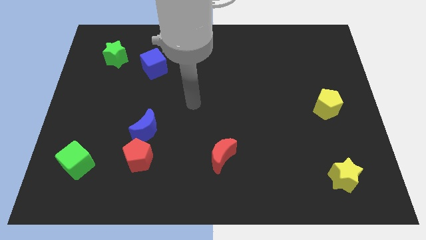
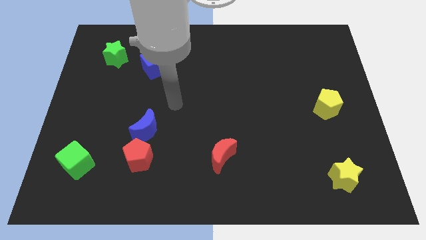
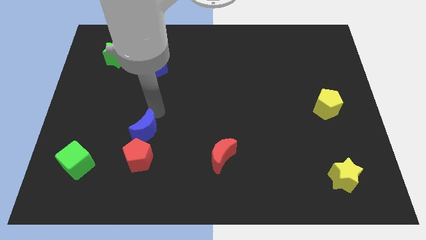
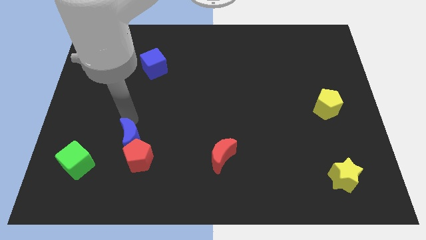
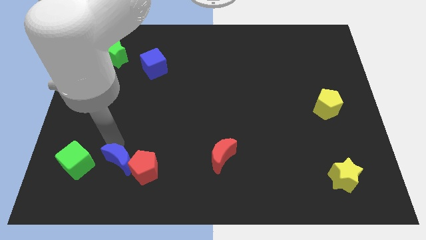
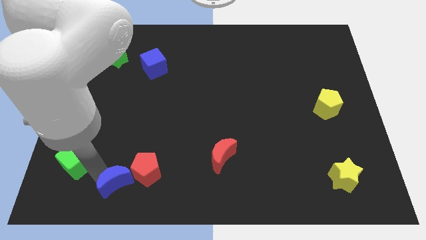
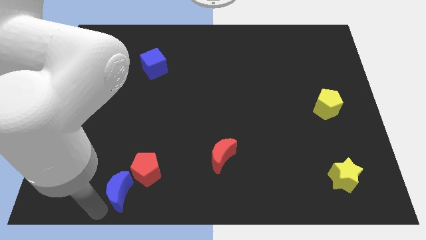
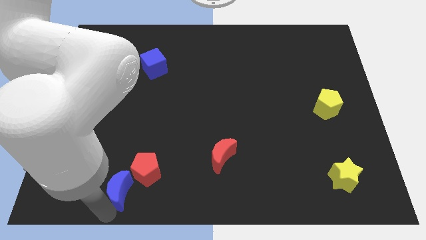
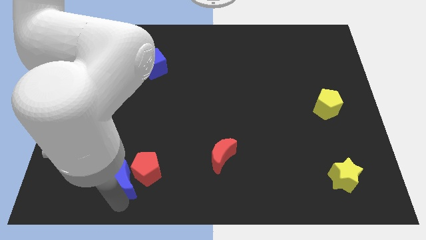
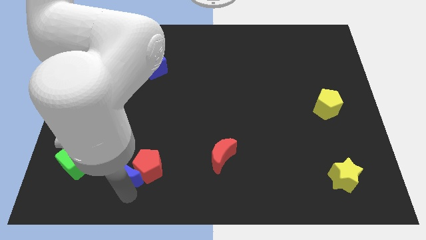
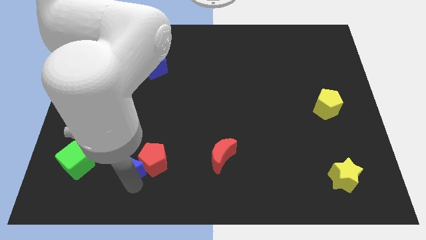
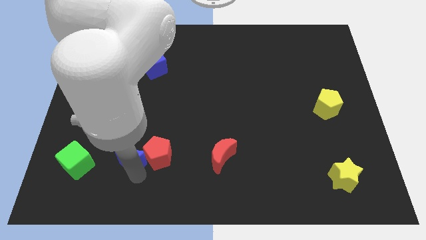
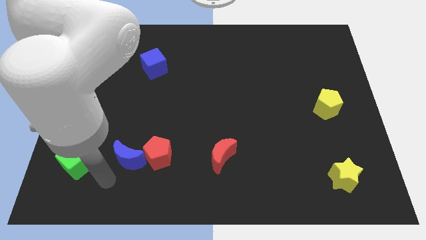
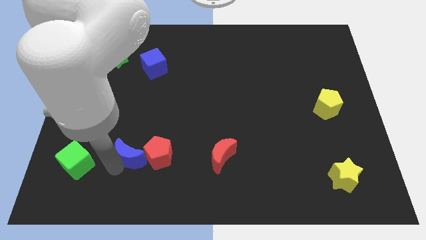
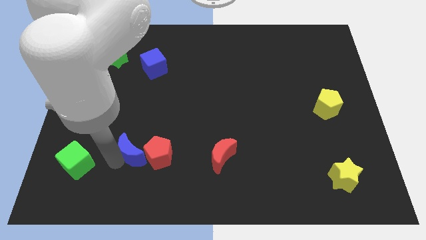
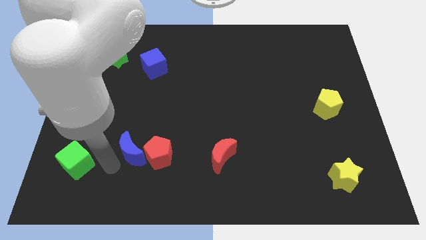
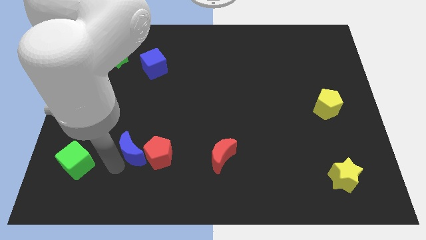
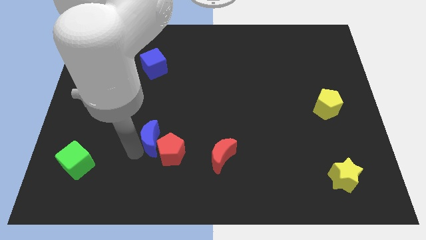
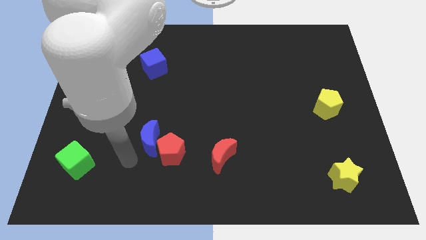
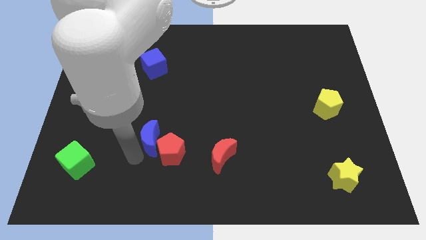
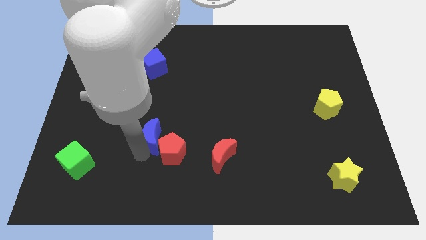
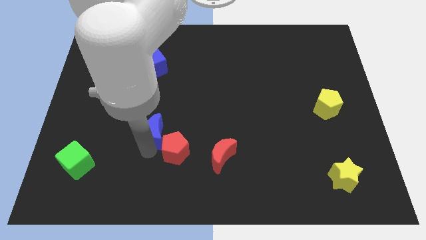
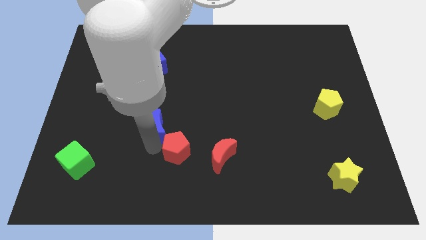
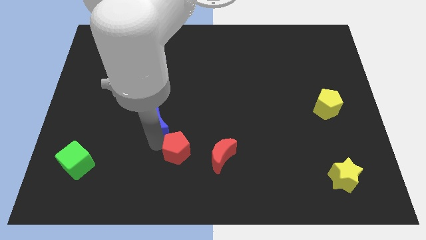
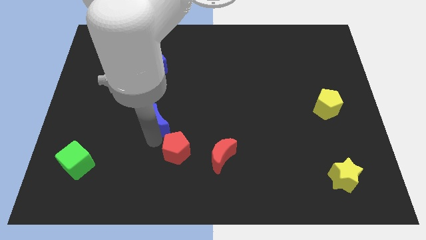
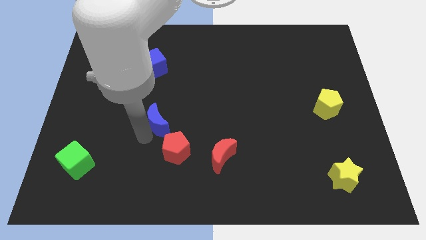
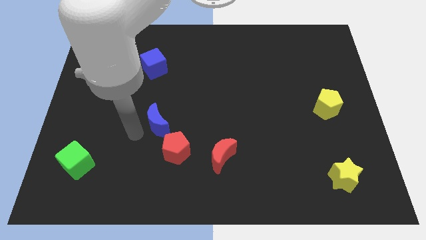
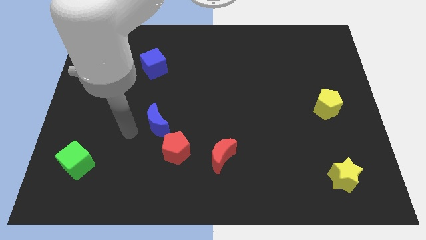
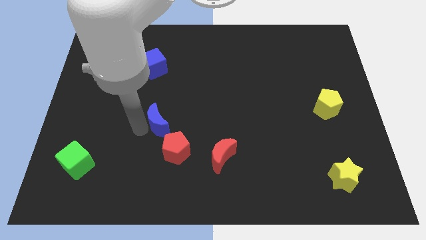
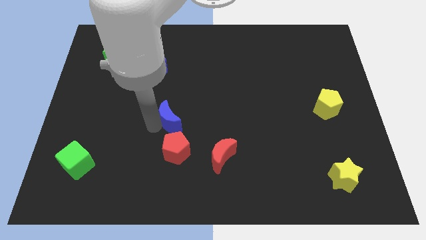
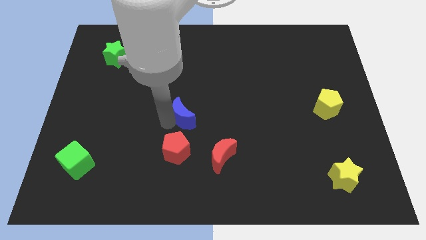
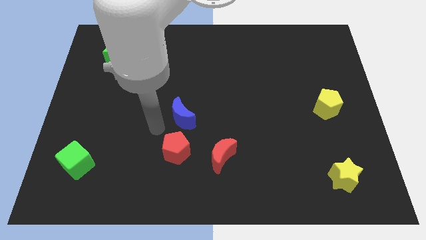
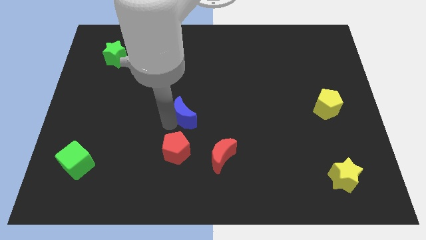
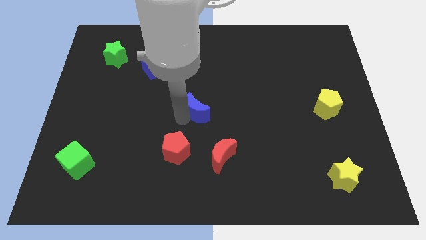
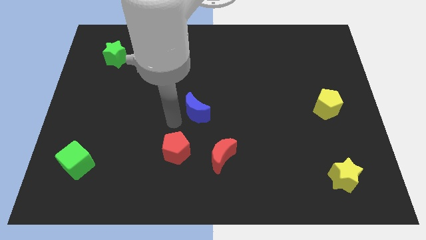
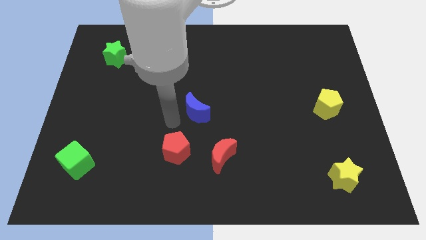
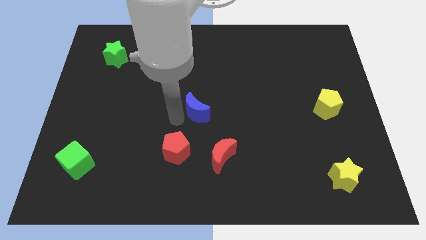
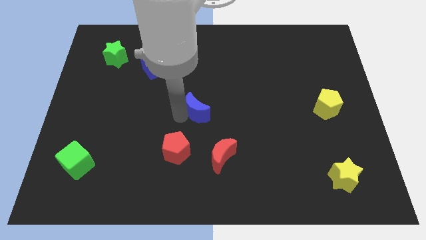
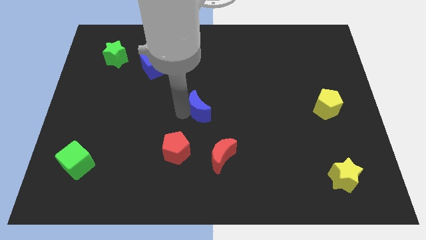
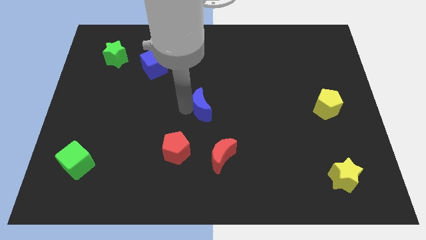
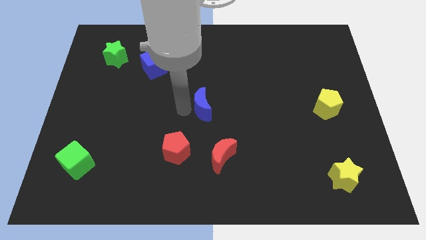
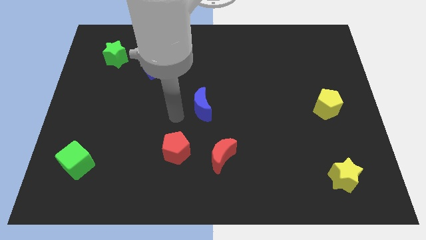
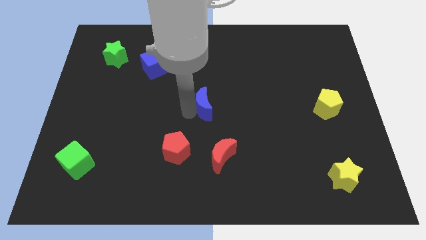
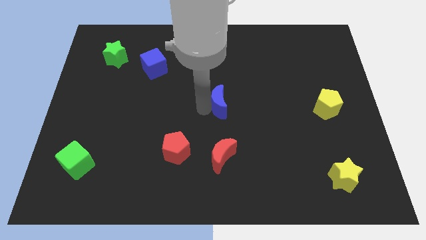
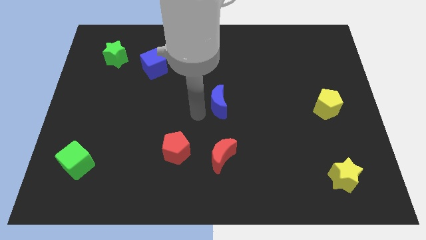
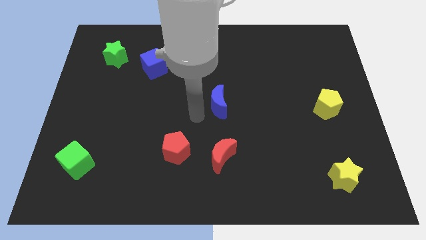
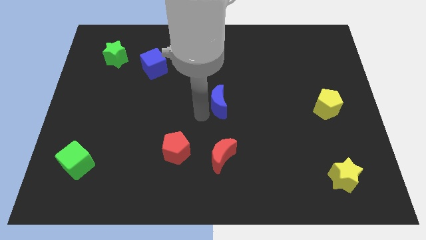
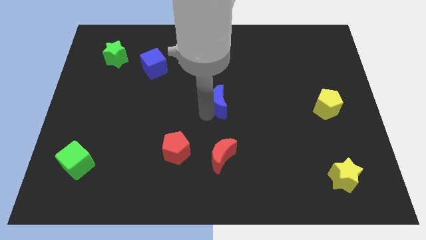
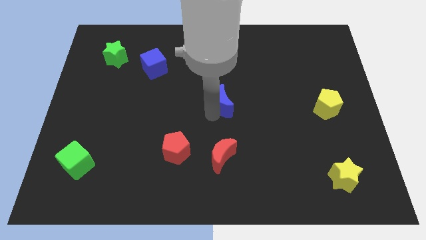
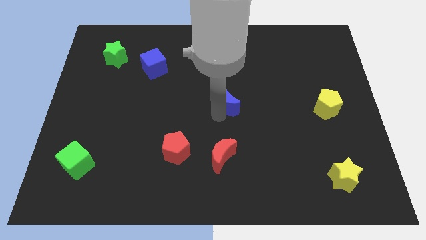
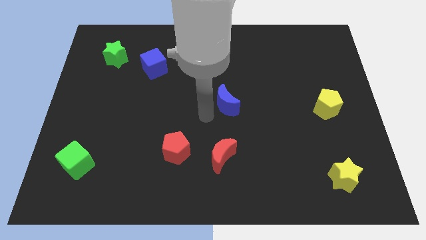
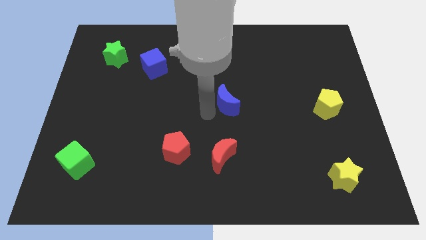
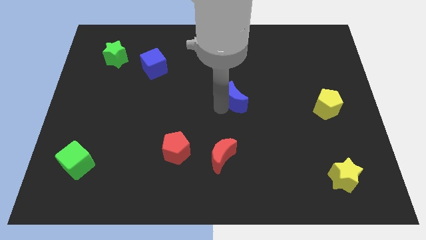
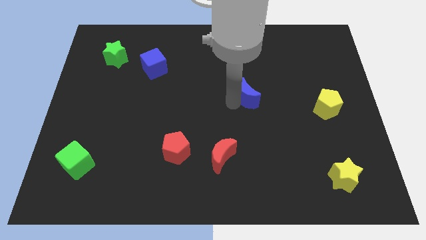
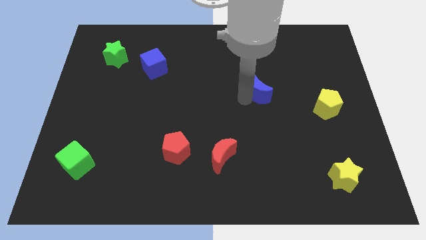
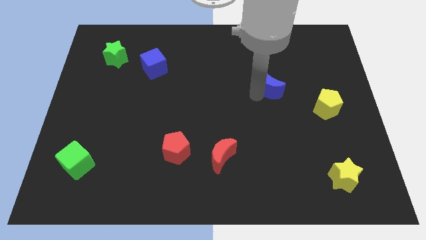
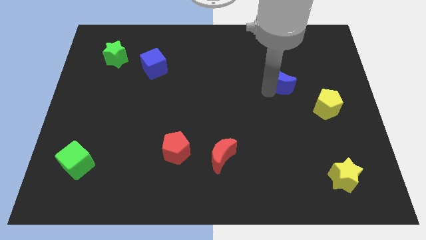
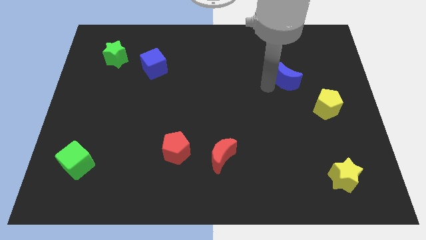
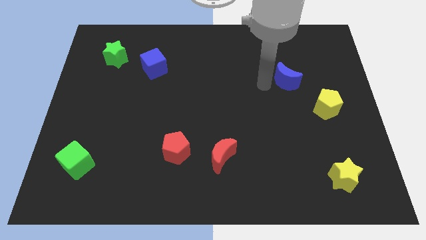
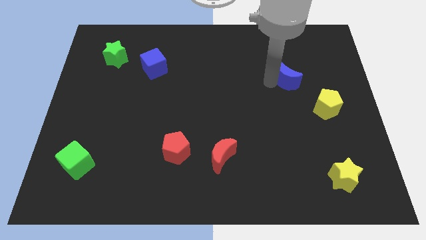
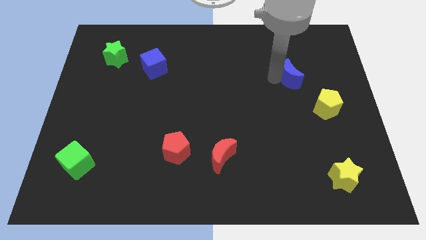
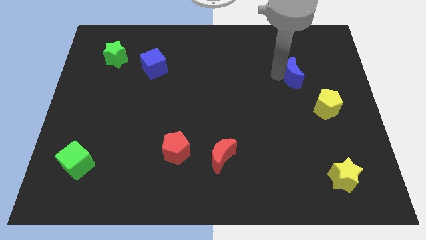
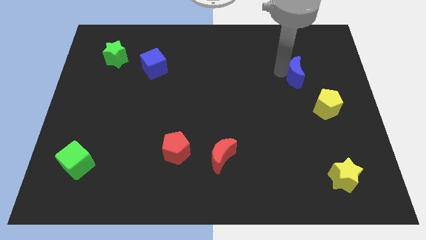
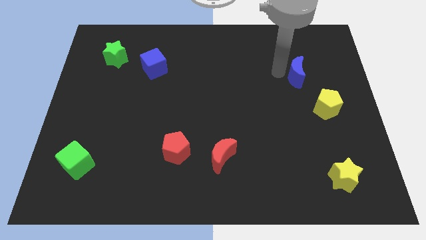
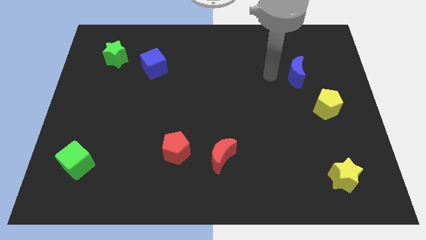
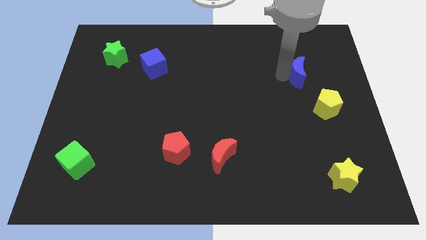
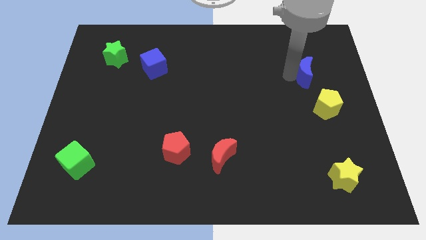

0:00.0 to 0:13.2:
move the blue moon to the top of the yellow pentagon

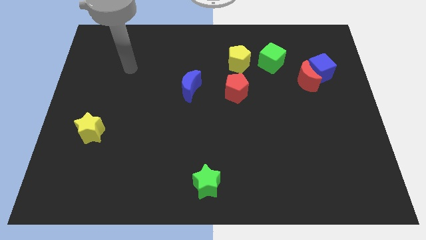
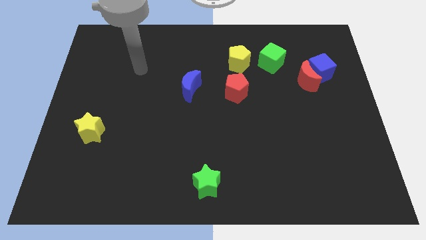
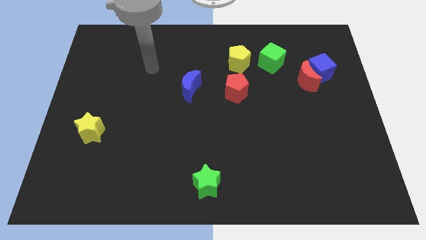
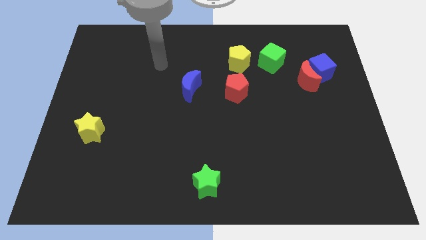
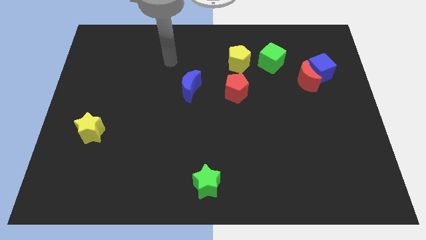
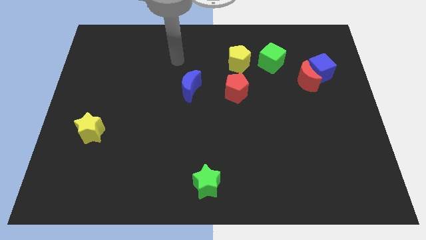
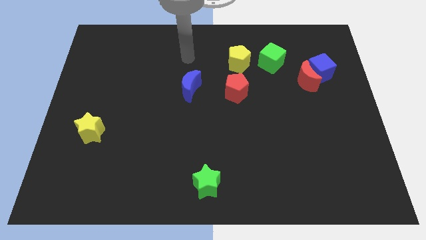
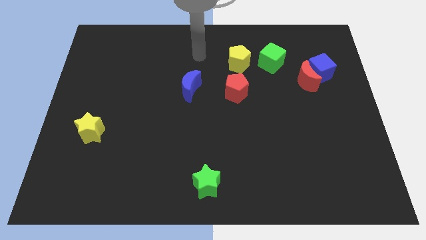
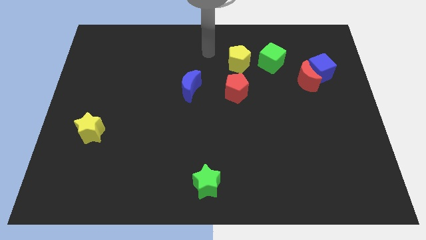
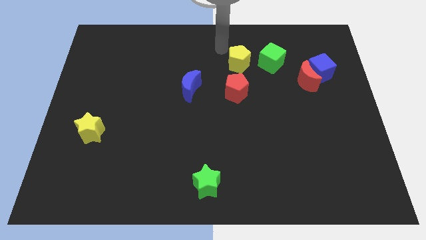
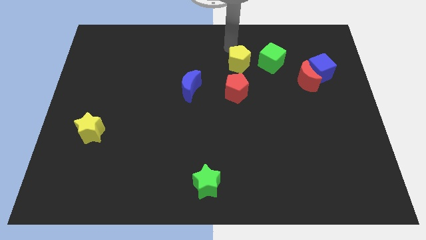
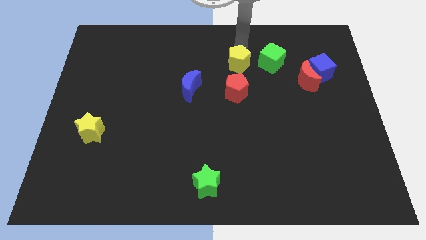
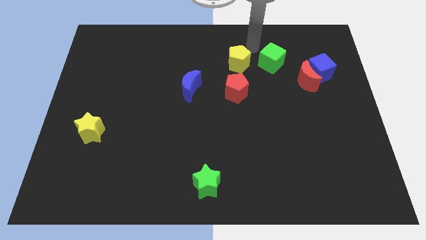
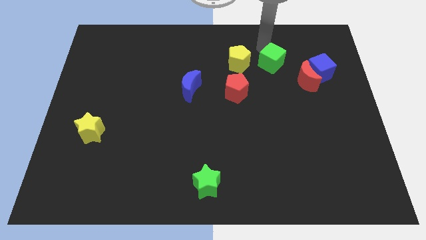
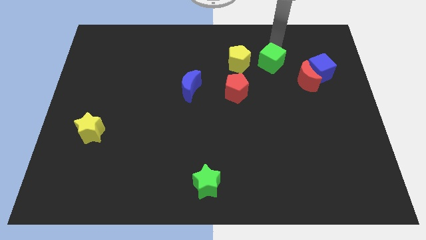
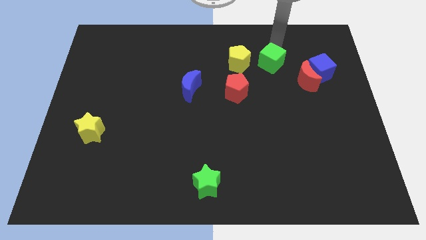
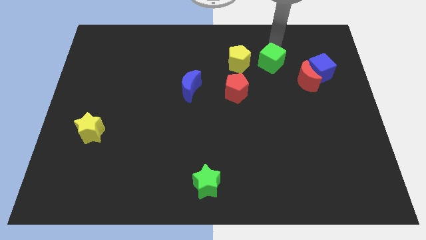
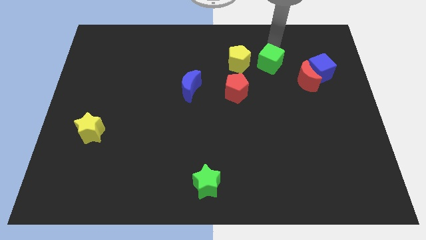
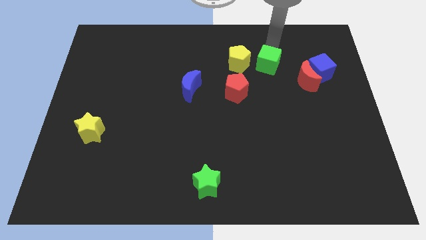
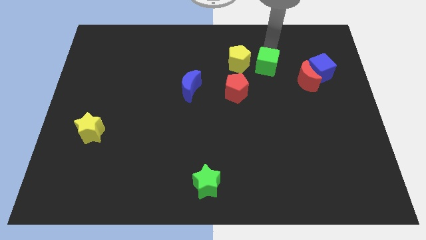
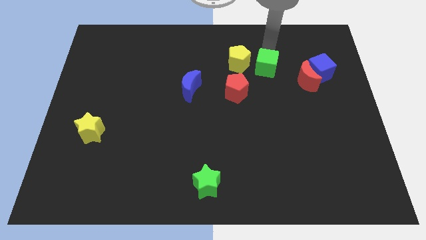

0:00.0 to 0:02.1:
put the green cube to the left side of the red moon
